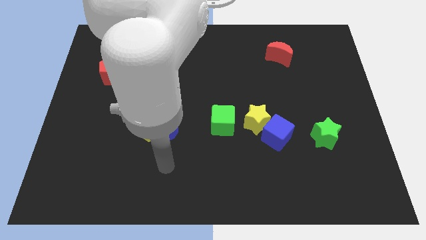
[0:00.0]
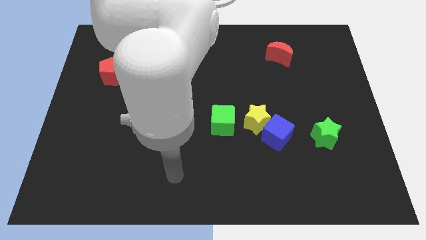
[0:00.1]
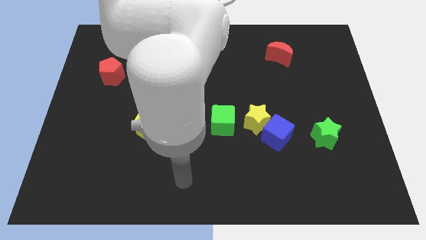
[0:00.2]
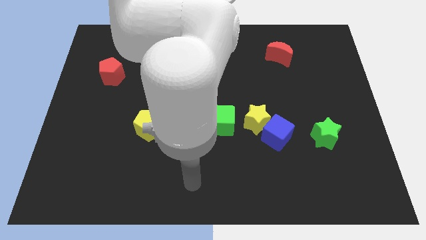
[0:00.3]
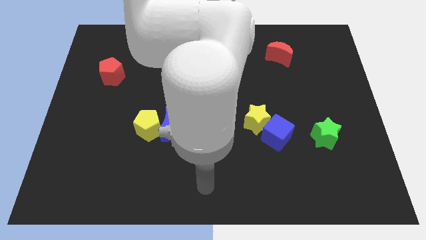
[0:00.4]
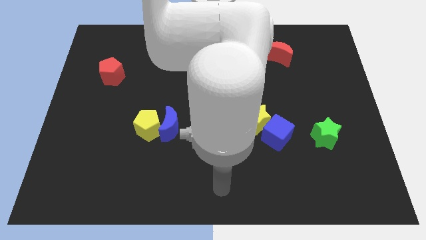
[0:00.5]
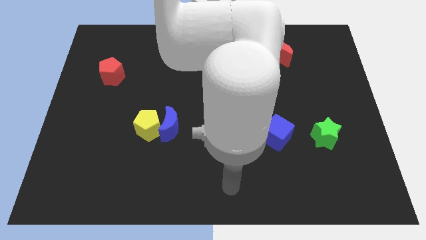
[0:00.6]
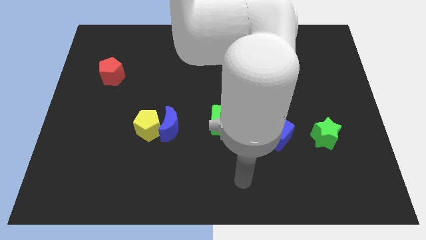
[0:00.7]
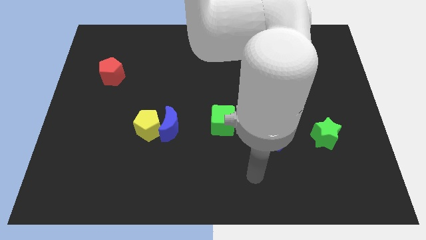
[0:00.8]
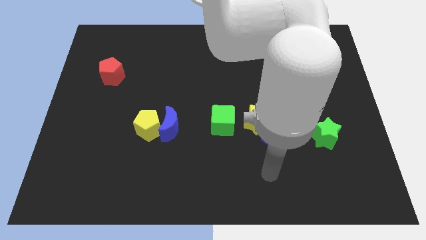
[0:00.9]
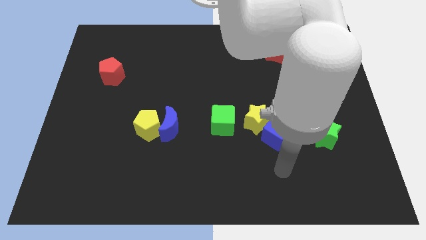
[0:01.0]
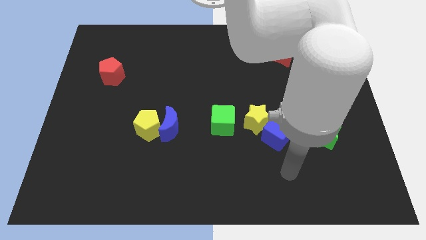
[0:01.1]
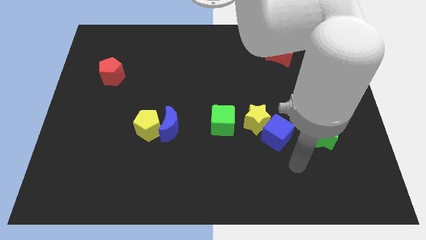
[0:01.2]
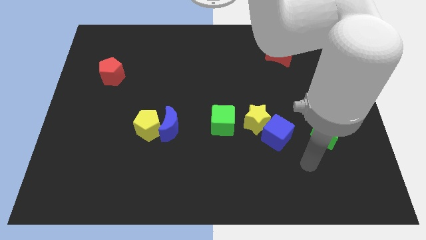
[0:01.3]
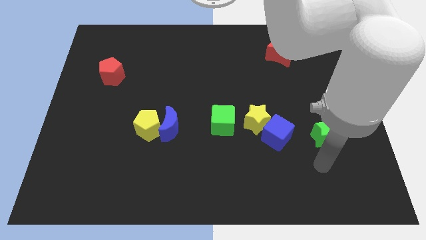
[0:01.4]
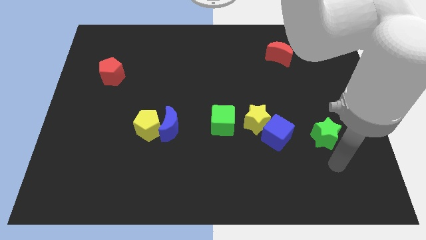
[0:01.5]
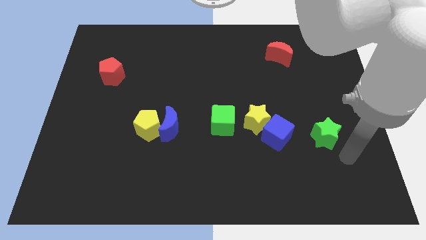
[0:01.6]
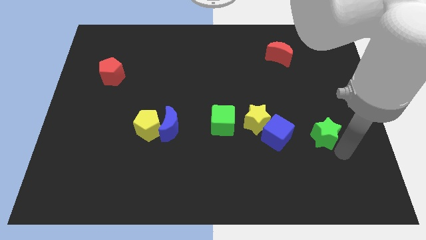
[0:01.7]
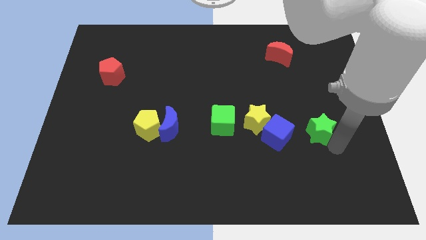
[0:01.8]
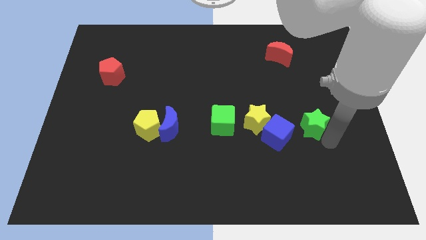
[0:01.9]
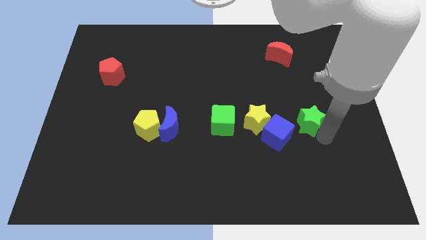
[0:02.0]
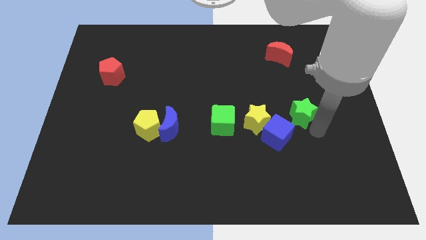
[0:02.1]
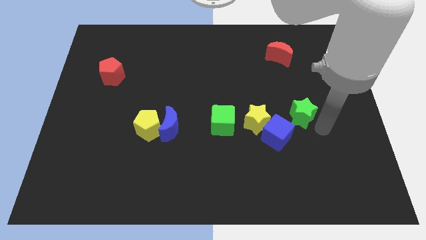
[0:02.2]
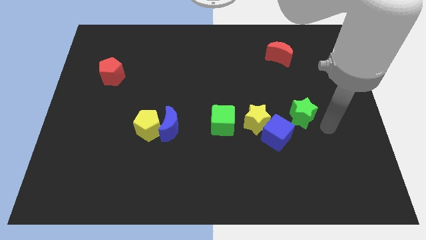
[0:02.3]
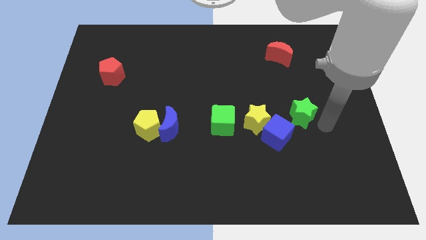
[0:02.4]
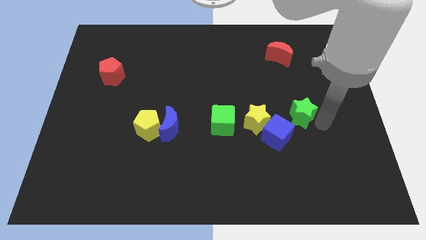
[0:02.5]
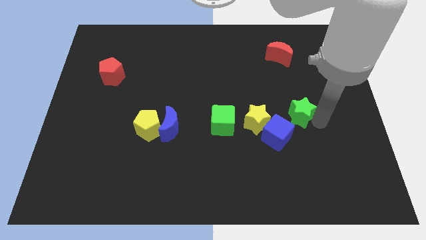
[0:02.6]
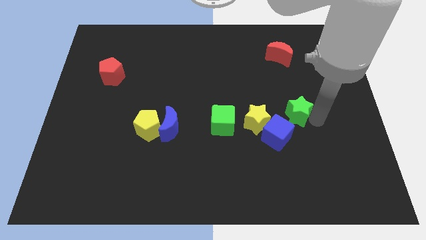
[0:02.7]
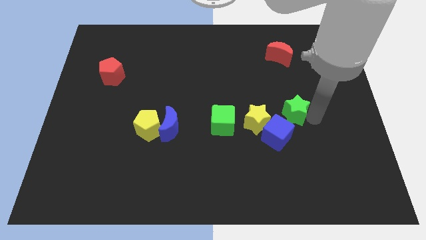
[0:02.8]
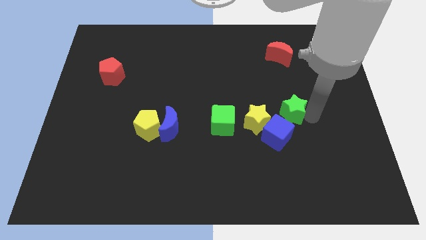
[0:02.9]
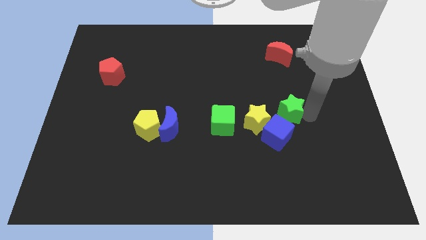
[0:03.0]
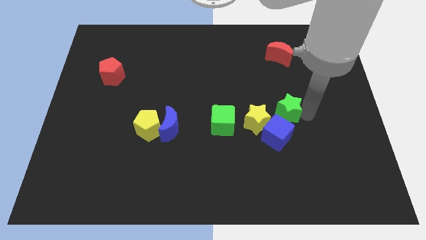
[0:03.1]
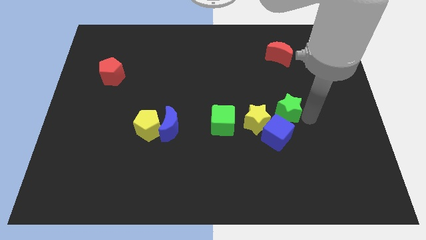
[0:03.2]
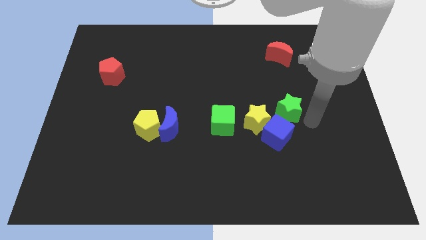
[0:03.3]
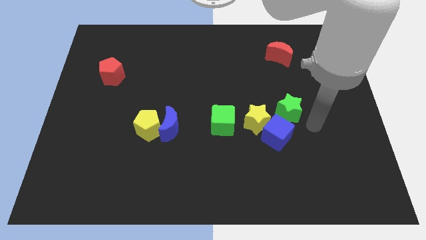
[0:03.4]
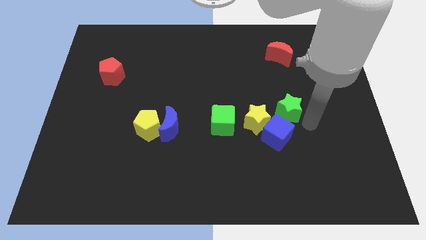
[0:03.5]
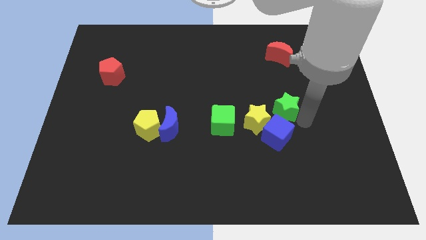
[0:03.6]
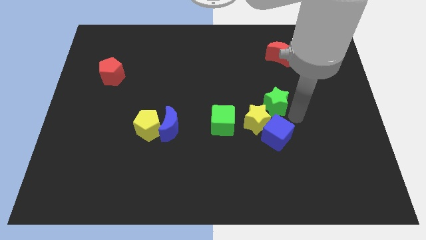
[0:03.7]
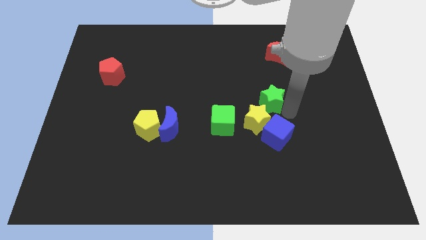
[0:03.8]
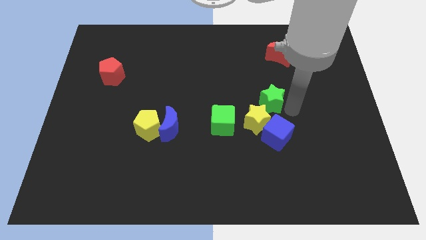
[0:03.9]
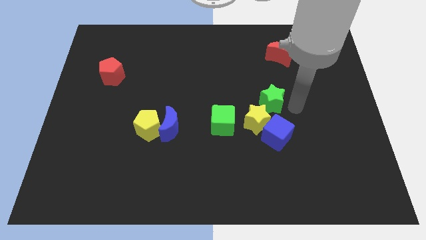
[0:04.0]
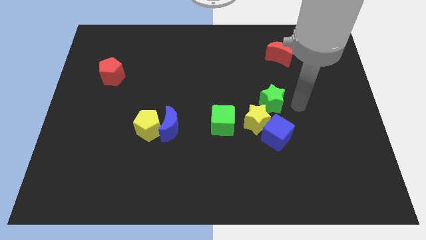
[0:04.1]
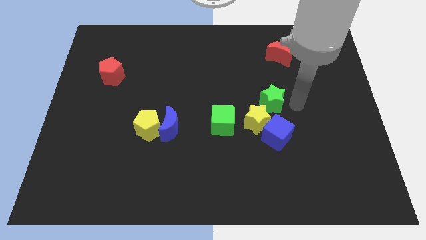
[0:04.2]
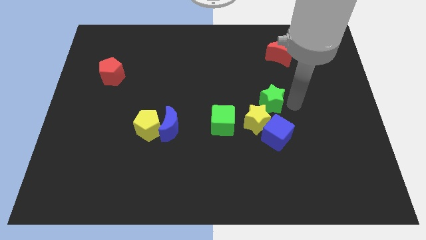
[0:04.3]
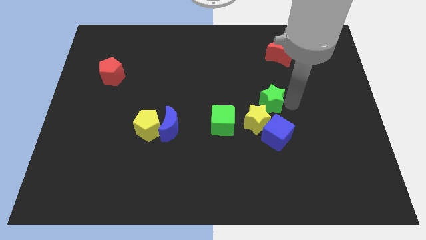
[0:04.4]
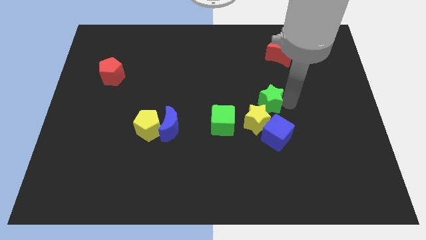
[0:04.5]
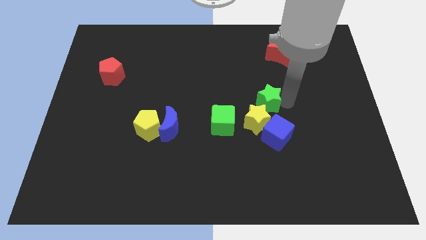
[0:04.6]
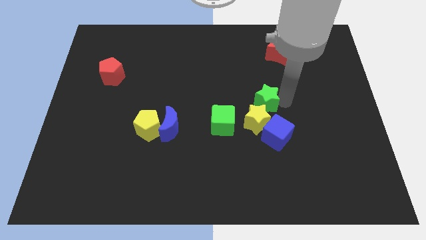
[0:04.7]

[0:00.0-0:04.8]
move the green star to the center

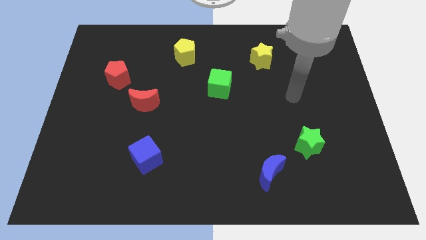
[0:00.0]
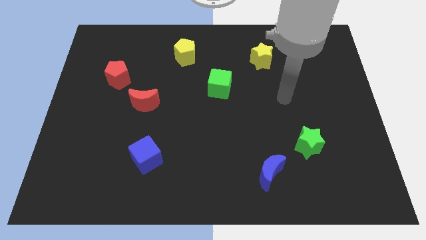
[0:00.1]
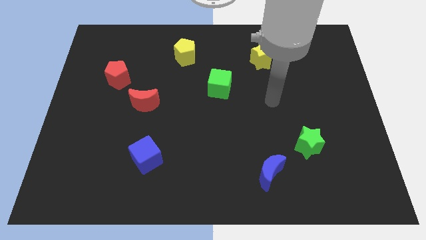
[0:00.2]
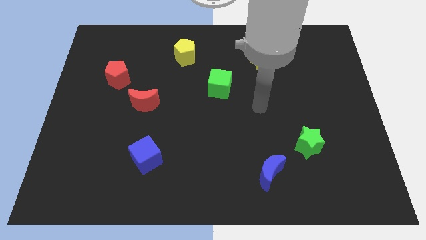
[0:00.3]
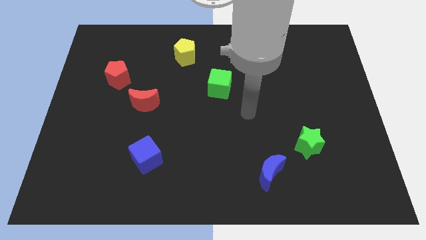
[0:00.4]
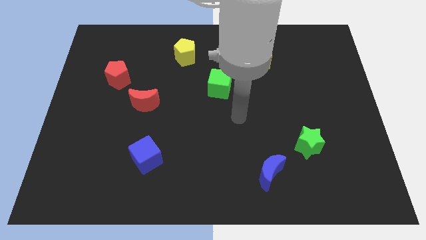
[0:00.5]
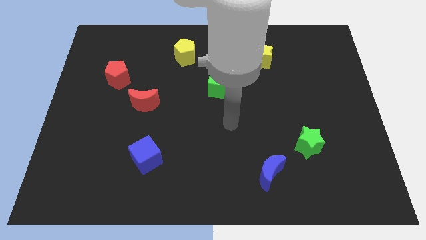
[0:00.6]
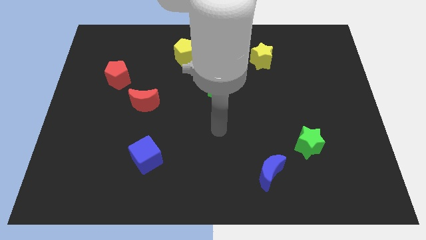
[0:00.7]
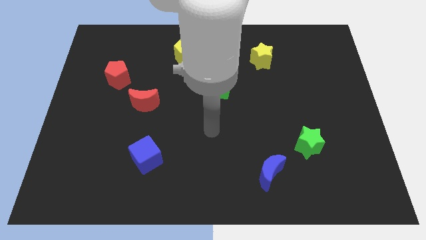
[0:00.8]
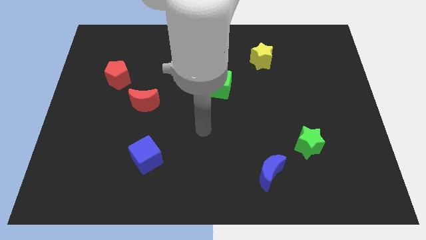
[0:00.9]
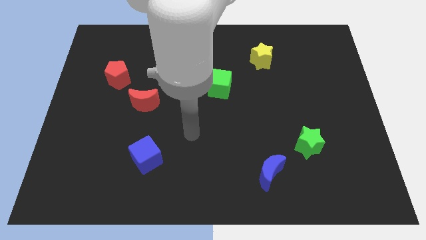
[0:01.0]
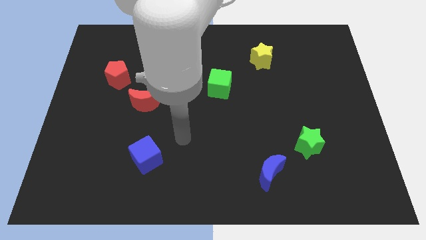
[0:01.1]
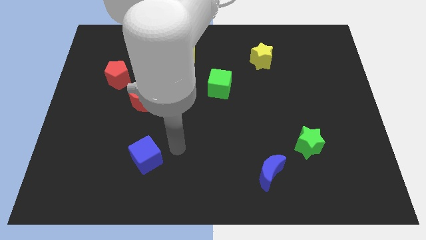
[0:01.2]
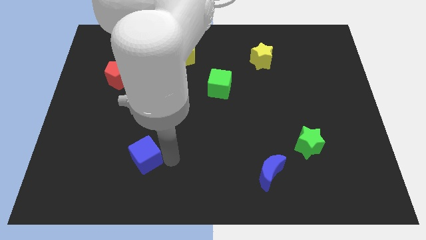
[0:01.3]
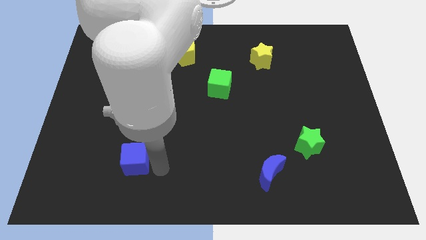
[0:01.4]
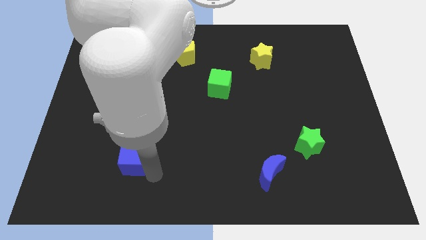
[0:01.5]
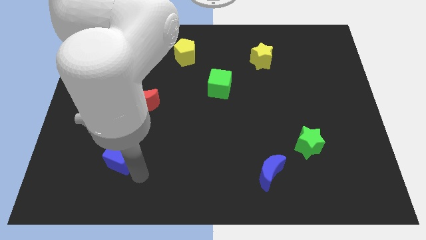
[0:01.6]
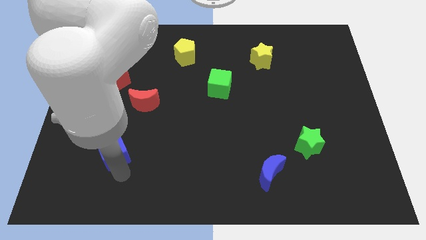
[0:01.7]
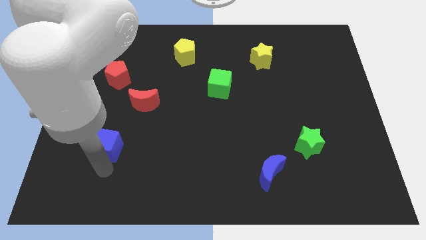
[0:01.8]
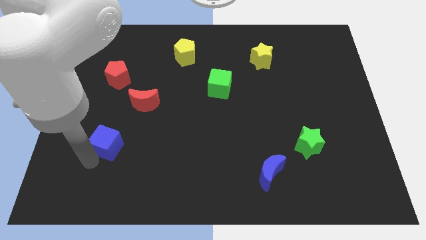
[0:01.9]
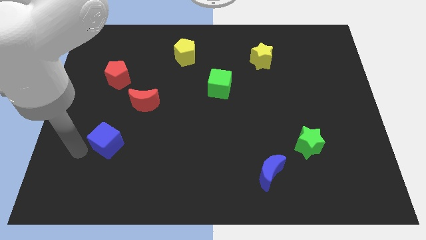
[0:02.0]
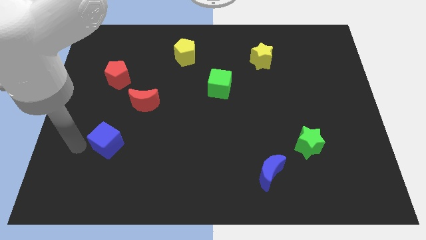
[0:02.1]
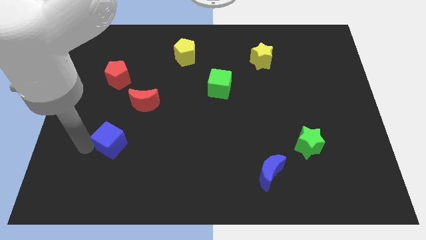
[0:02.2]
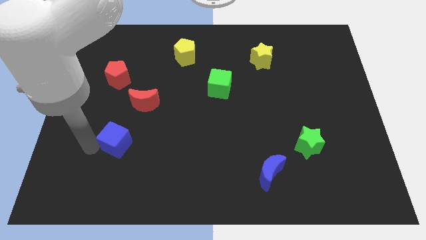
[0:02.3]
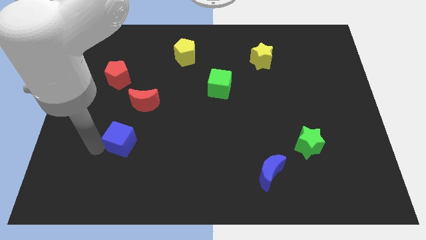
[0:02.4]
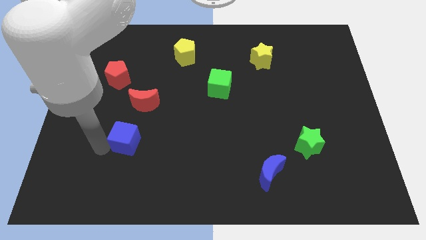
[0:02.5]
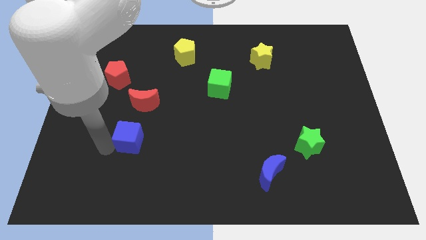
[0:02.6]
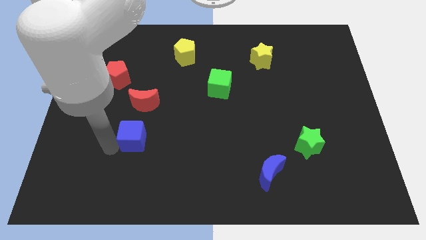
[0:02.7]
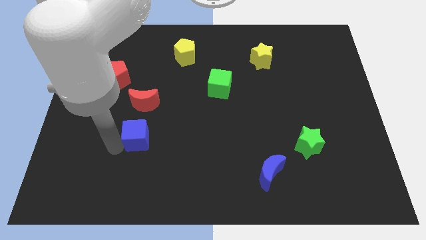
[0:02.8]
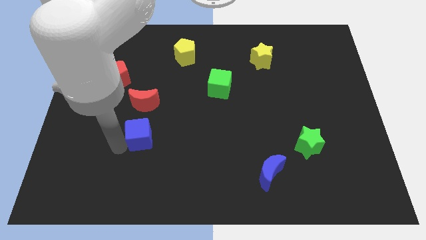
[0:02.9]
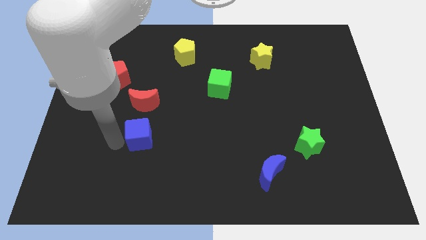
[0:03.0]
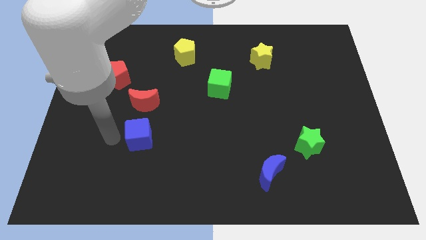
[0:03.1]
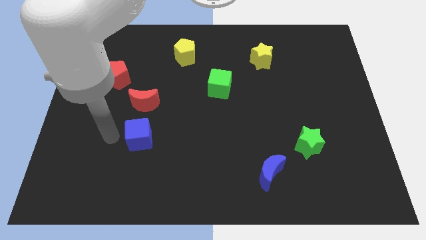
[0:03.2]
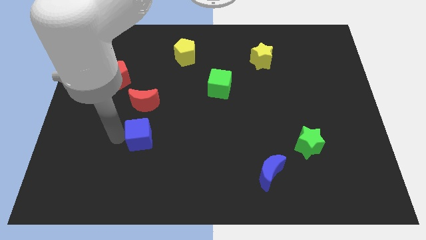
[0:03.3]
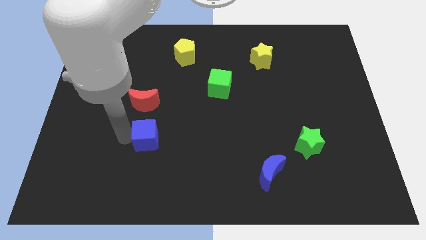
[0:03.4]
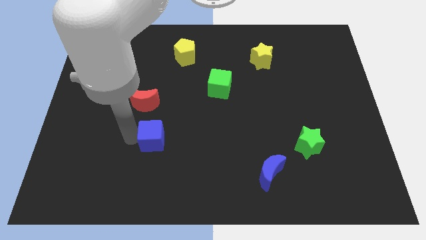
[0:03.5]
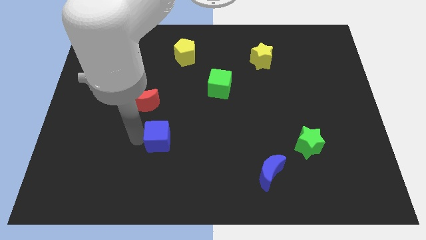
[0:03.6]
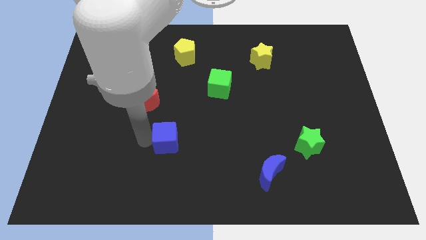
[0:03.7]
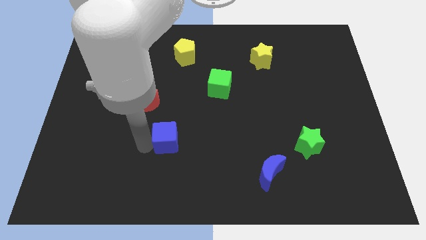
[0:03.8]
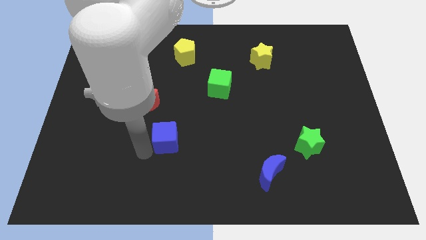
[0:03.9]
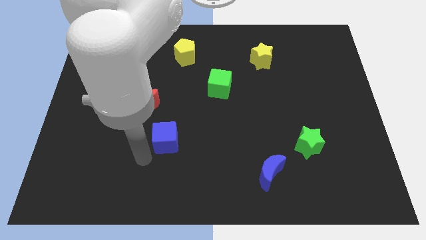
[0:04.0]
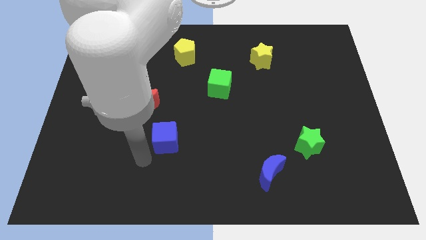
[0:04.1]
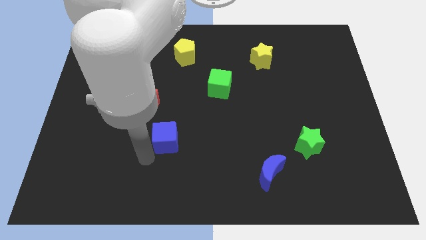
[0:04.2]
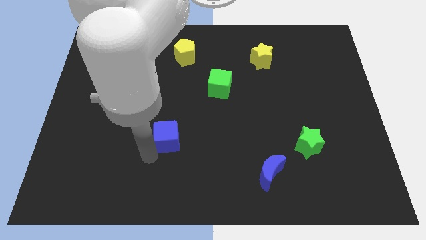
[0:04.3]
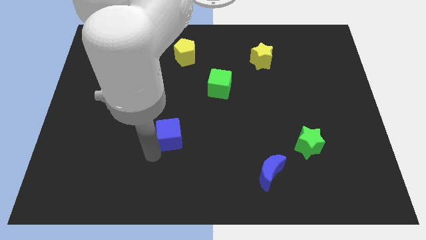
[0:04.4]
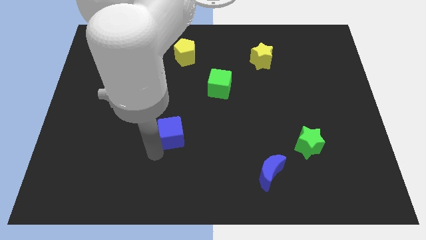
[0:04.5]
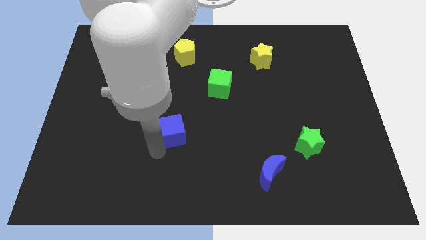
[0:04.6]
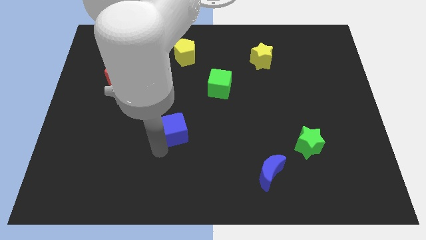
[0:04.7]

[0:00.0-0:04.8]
slide the blue cube to the center
